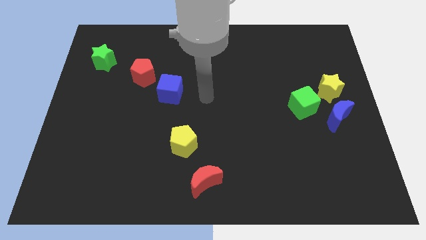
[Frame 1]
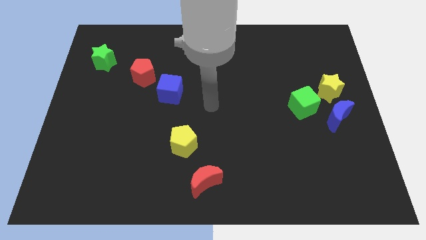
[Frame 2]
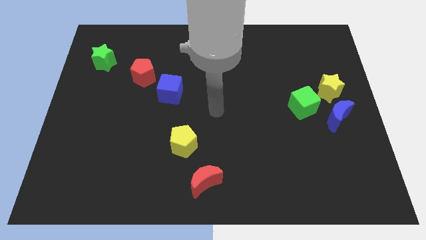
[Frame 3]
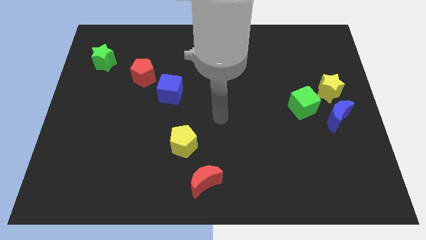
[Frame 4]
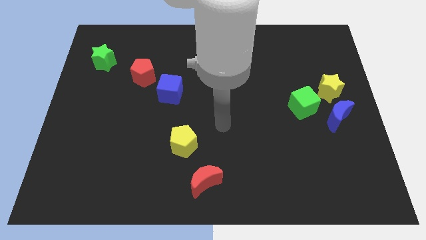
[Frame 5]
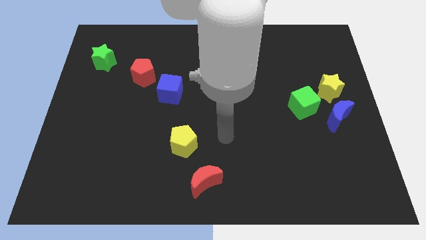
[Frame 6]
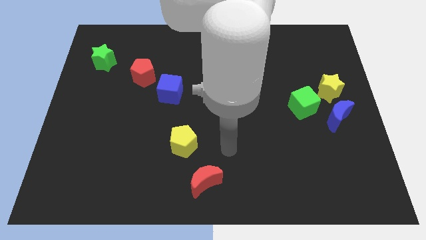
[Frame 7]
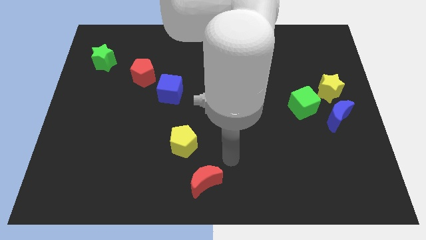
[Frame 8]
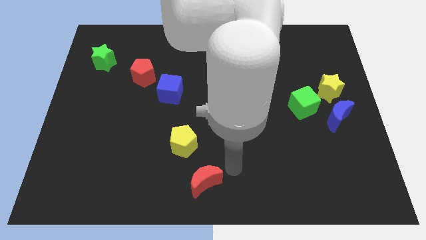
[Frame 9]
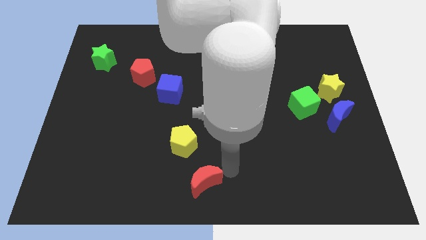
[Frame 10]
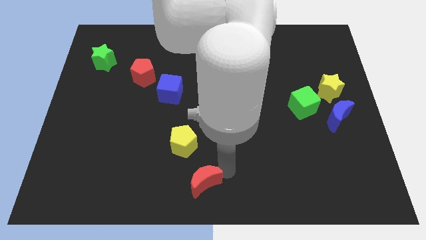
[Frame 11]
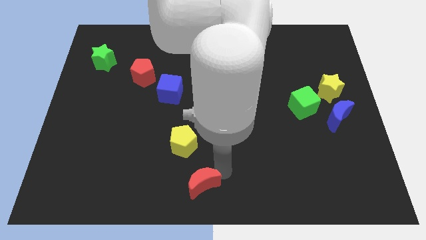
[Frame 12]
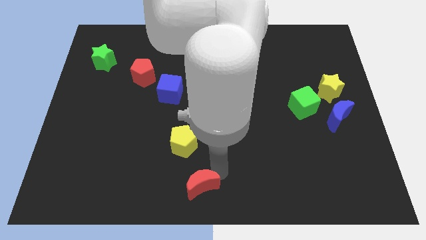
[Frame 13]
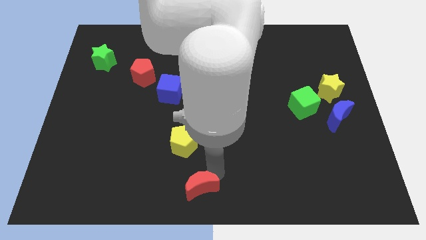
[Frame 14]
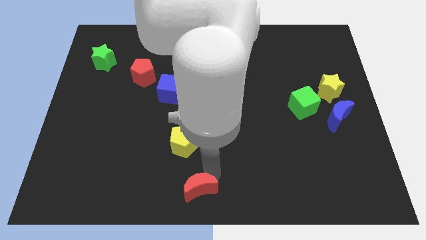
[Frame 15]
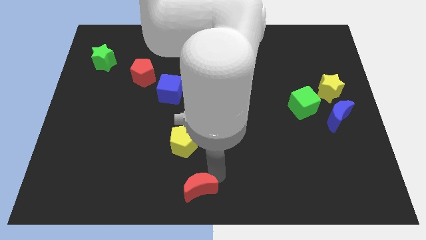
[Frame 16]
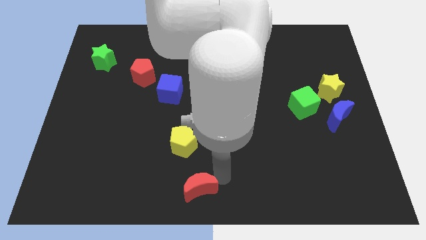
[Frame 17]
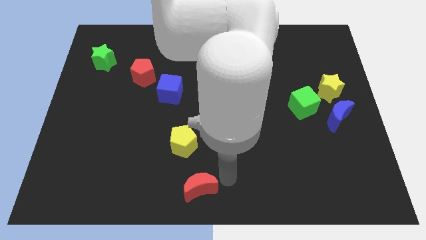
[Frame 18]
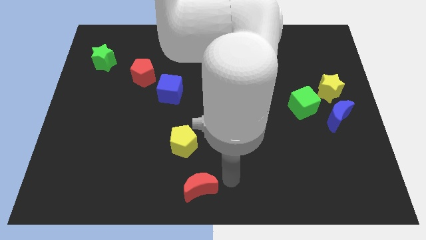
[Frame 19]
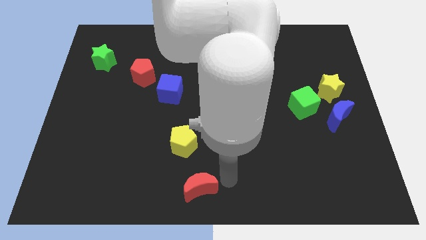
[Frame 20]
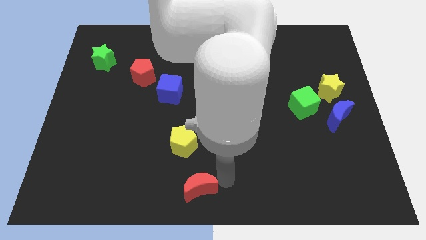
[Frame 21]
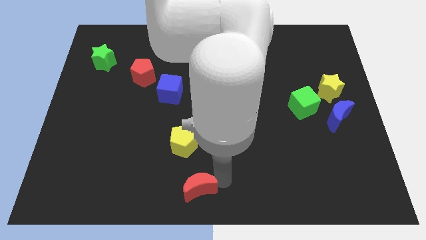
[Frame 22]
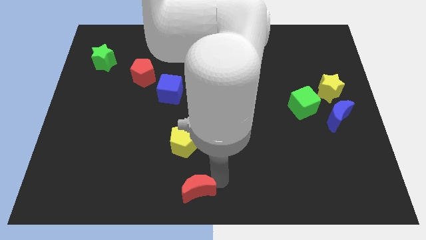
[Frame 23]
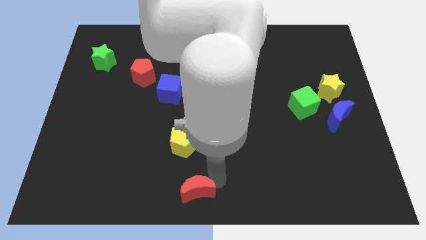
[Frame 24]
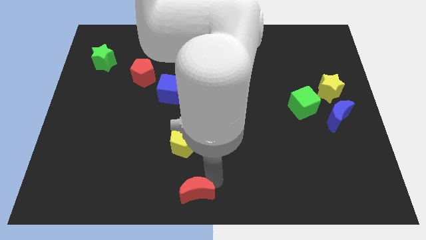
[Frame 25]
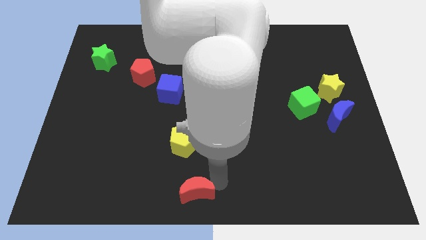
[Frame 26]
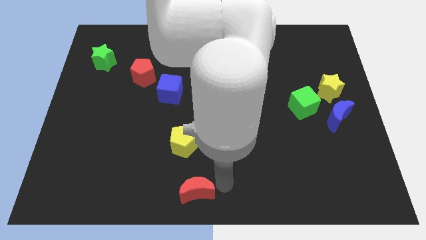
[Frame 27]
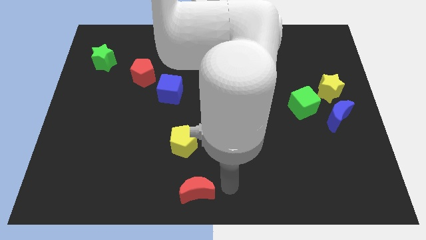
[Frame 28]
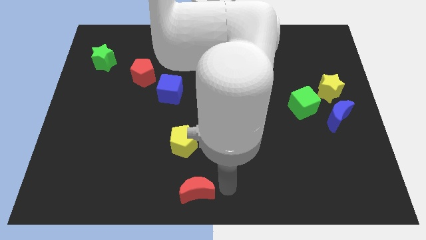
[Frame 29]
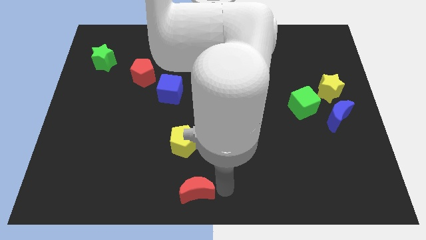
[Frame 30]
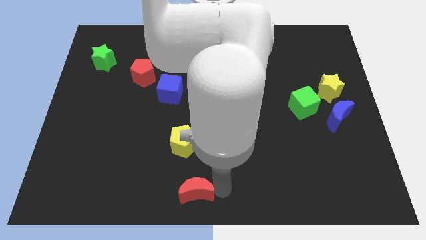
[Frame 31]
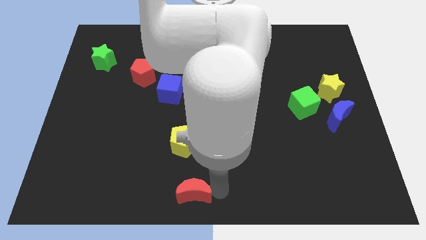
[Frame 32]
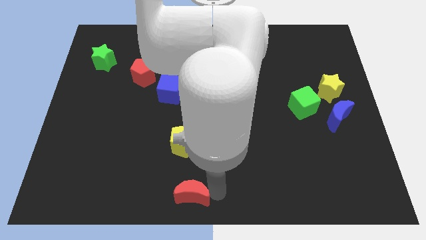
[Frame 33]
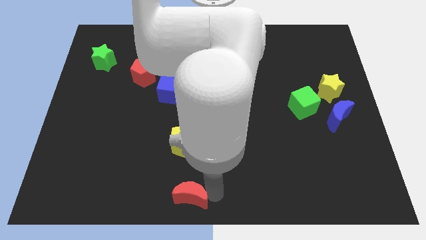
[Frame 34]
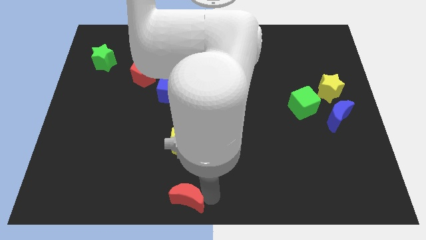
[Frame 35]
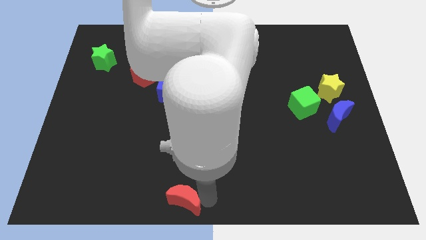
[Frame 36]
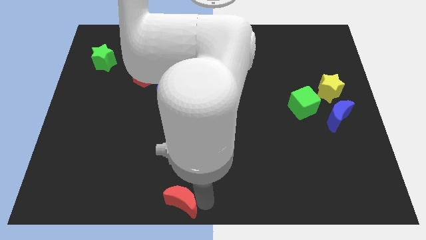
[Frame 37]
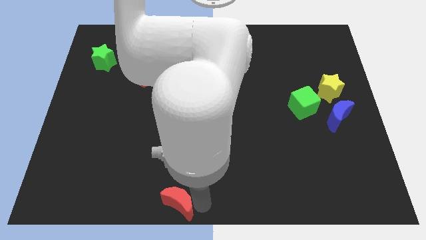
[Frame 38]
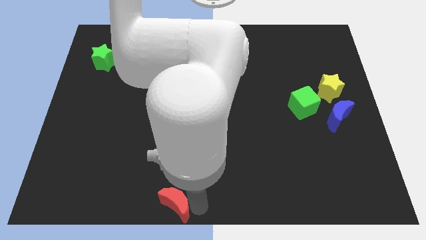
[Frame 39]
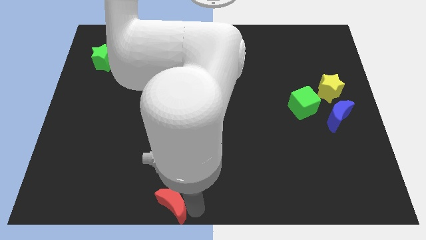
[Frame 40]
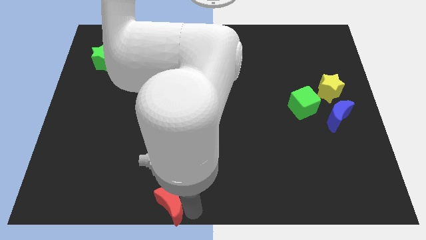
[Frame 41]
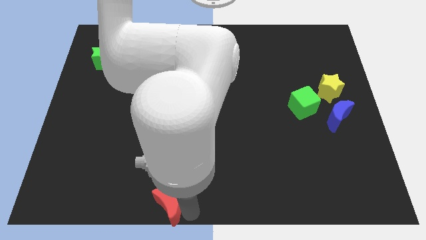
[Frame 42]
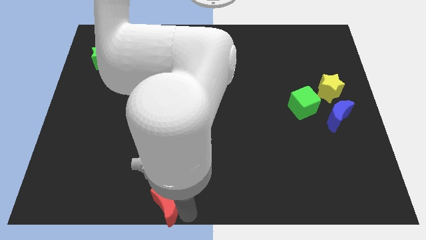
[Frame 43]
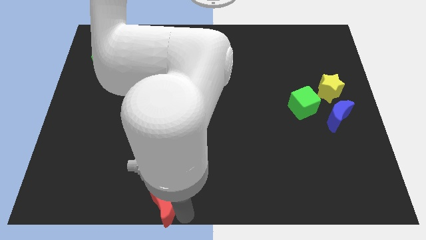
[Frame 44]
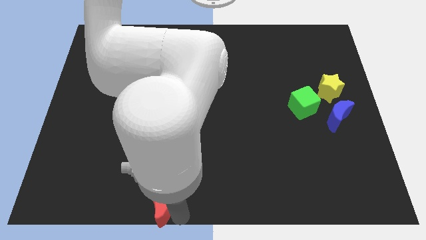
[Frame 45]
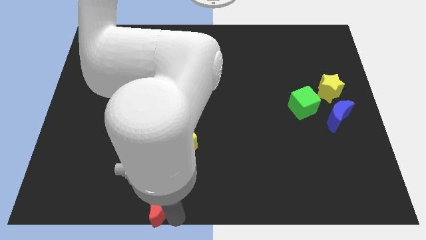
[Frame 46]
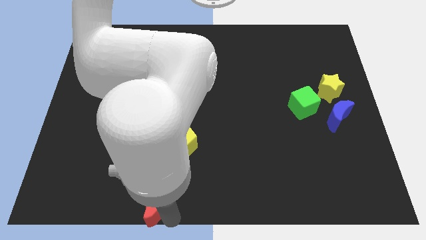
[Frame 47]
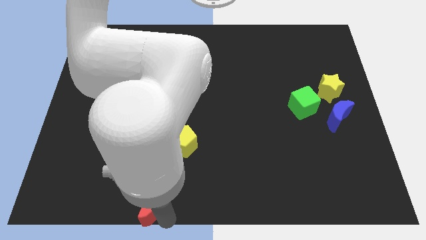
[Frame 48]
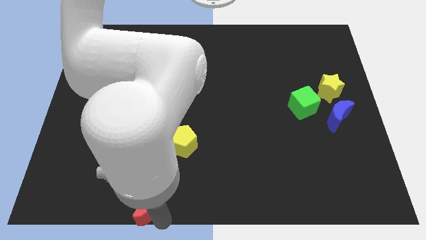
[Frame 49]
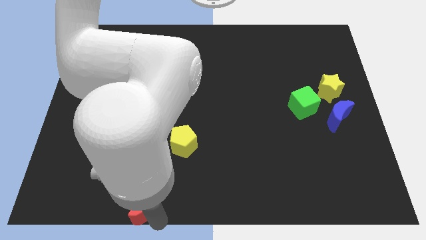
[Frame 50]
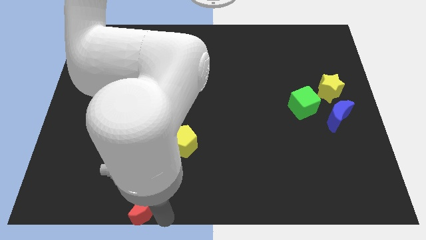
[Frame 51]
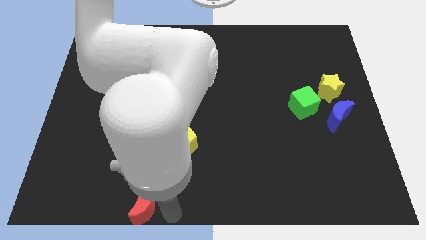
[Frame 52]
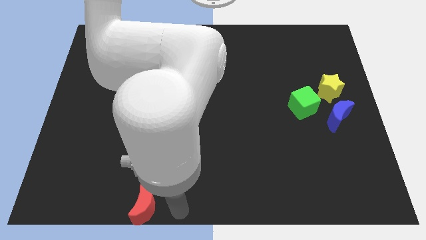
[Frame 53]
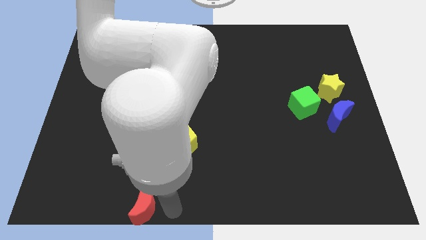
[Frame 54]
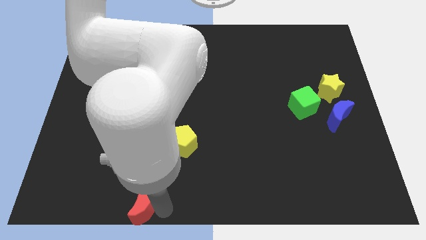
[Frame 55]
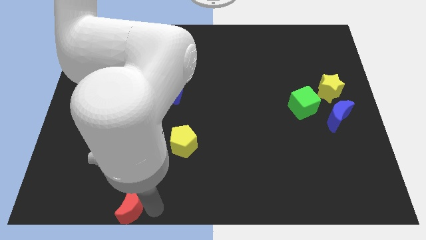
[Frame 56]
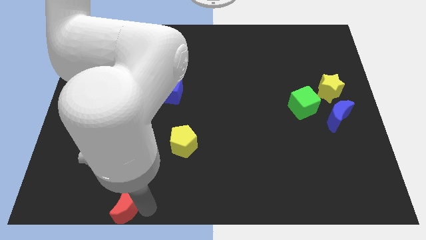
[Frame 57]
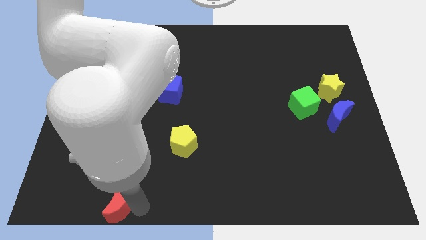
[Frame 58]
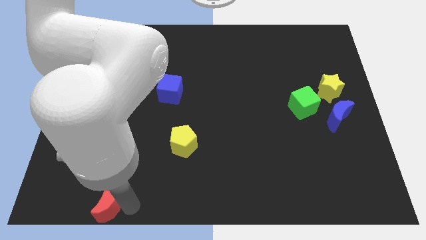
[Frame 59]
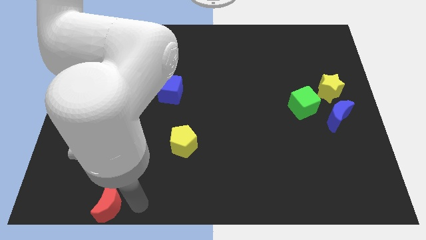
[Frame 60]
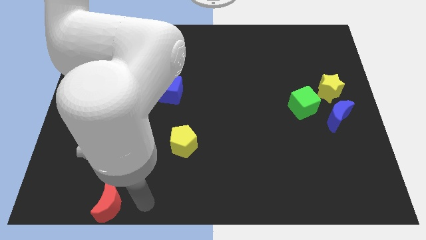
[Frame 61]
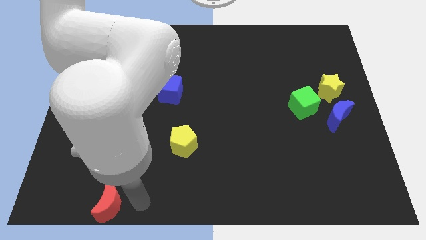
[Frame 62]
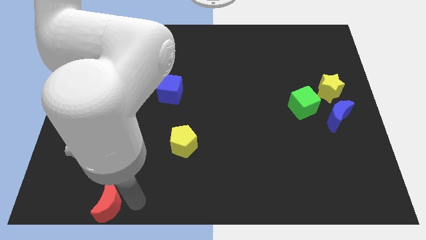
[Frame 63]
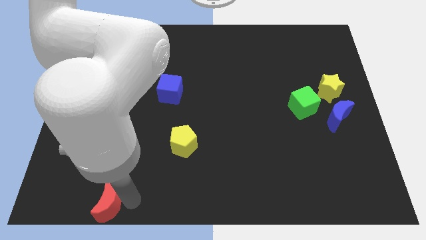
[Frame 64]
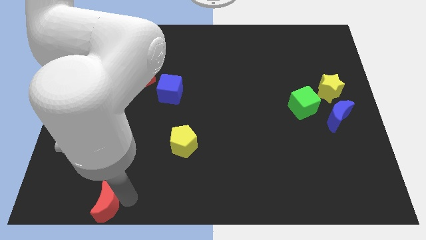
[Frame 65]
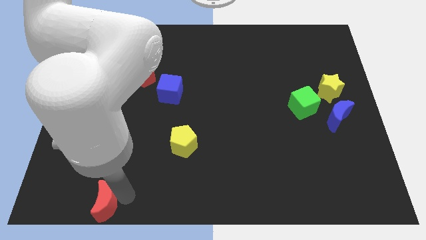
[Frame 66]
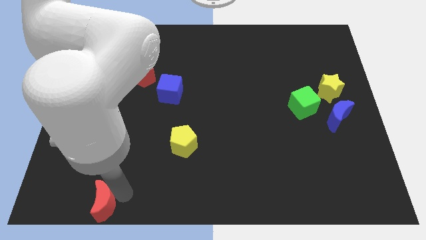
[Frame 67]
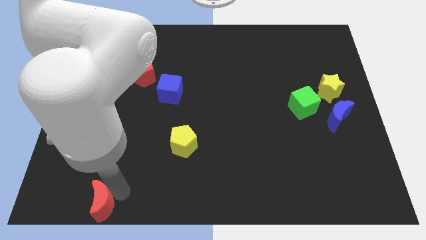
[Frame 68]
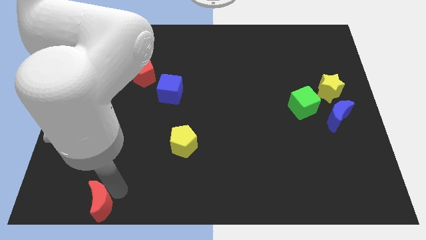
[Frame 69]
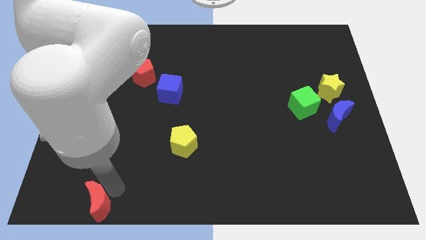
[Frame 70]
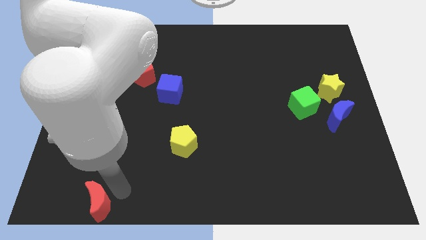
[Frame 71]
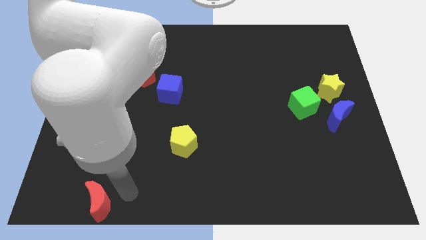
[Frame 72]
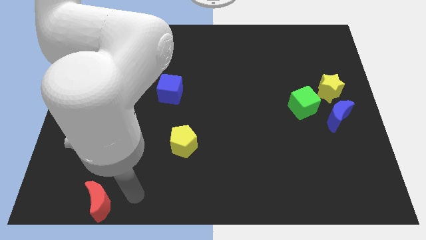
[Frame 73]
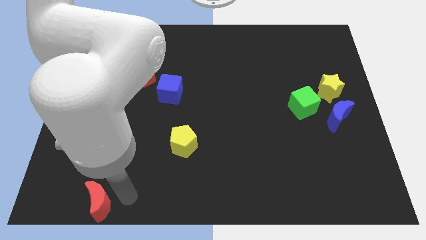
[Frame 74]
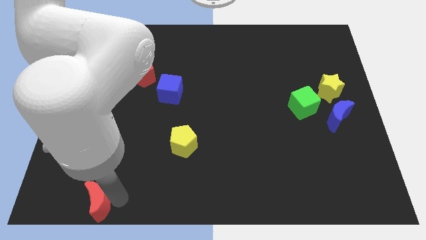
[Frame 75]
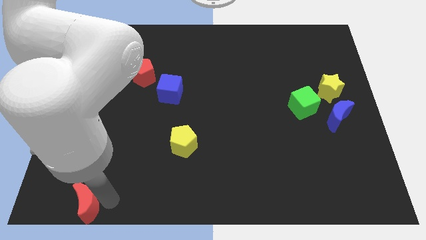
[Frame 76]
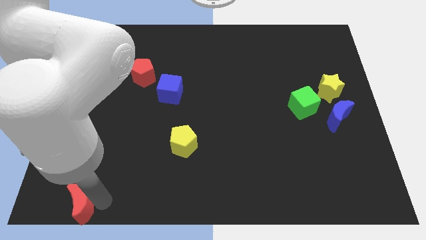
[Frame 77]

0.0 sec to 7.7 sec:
put the red moon to the bottom left
